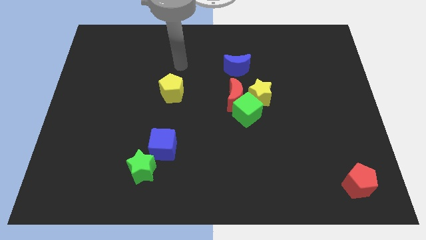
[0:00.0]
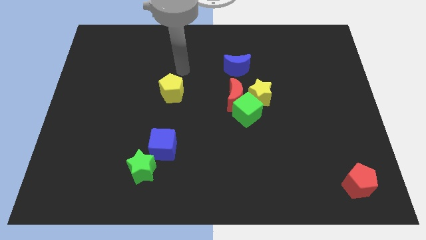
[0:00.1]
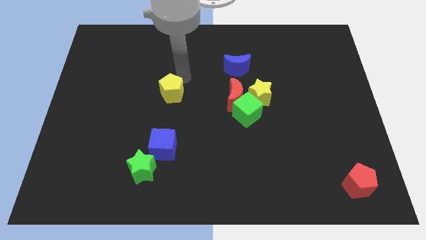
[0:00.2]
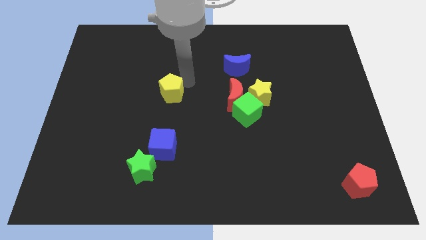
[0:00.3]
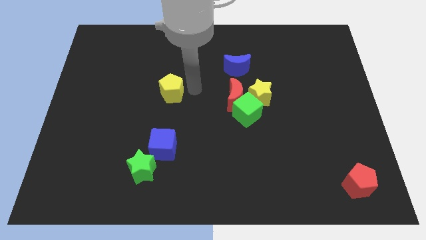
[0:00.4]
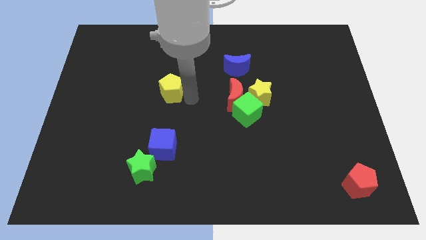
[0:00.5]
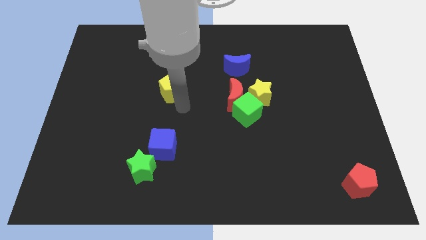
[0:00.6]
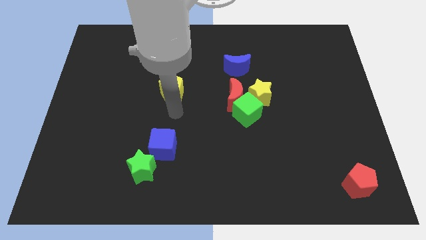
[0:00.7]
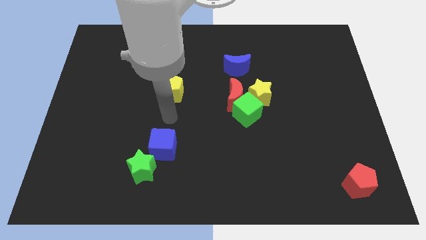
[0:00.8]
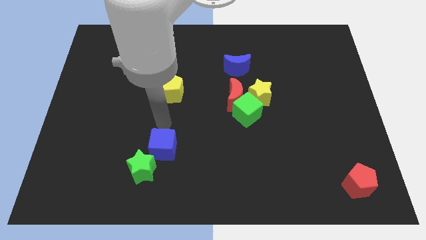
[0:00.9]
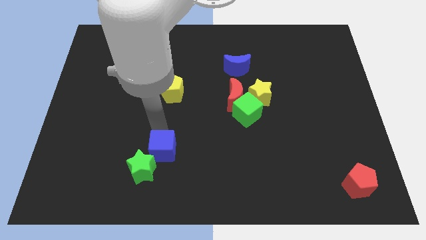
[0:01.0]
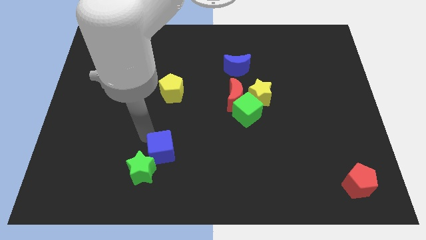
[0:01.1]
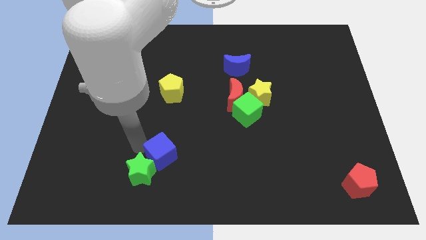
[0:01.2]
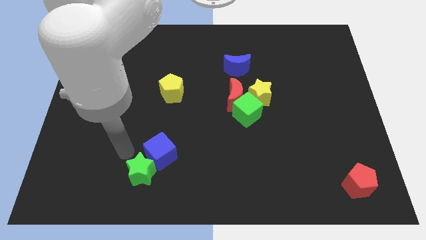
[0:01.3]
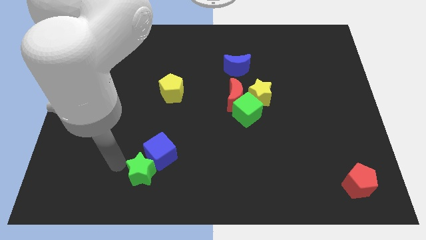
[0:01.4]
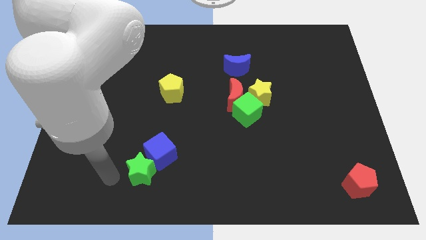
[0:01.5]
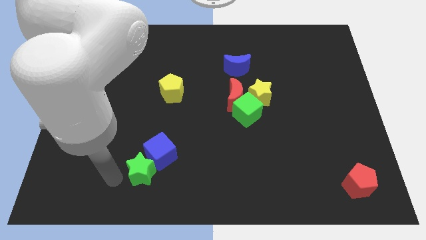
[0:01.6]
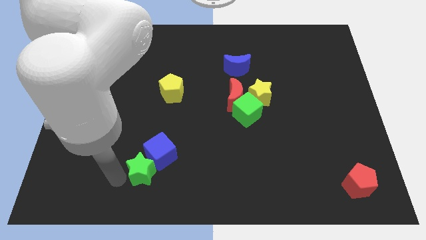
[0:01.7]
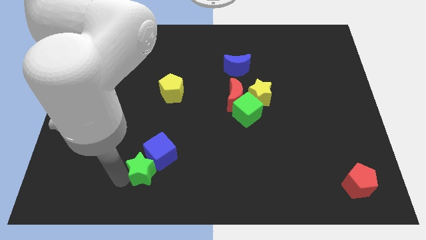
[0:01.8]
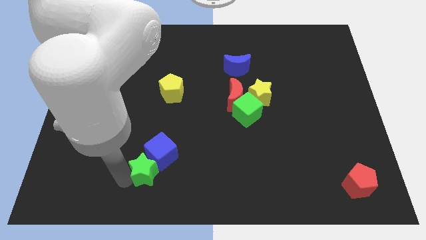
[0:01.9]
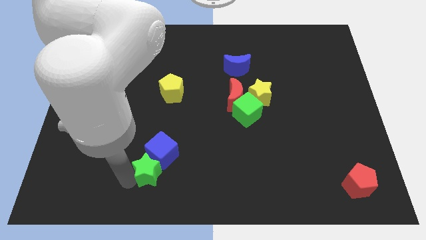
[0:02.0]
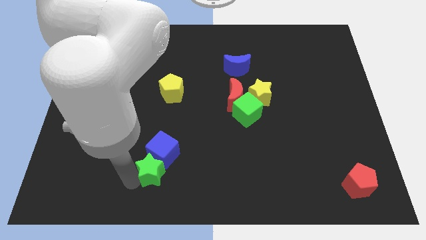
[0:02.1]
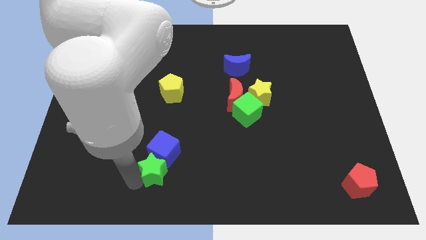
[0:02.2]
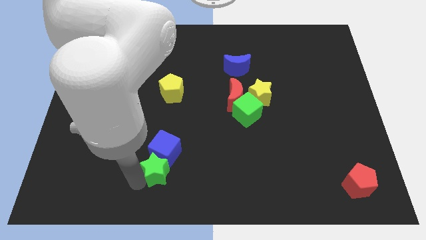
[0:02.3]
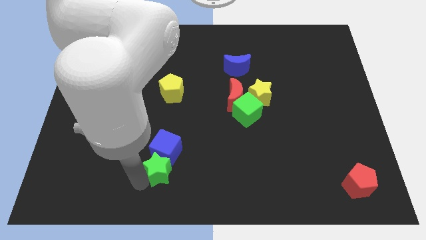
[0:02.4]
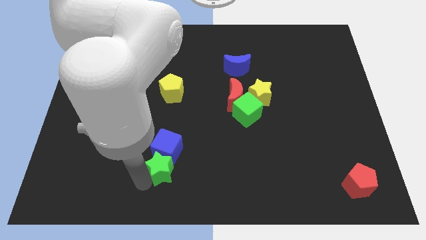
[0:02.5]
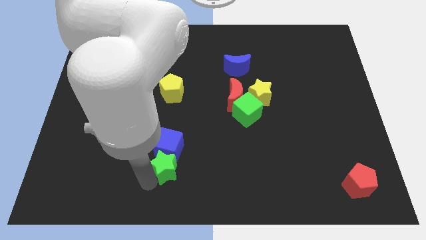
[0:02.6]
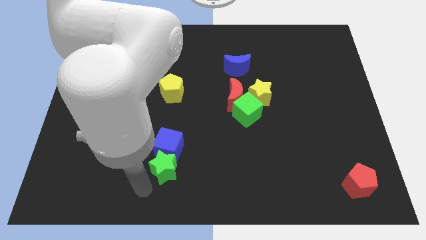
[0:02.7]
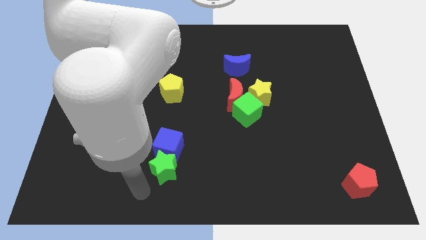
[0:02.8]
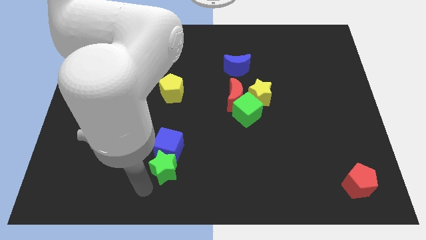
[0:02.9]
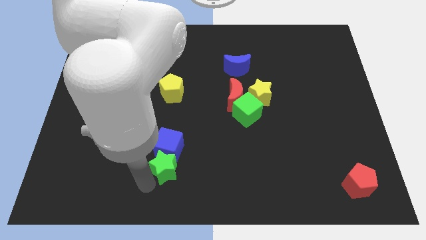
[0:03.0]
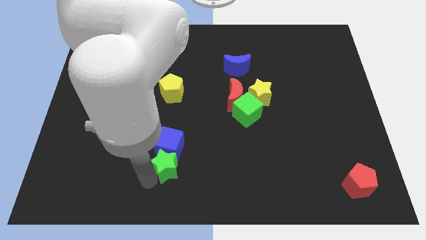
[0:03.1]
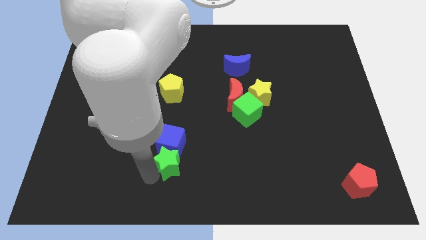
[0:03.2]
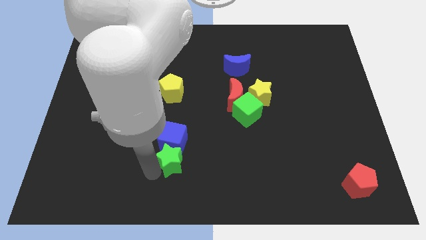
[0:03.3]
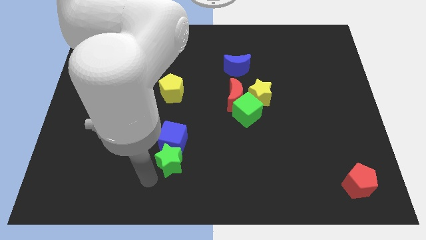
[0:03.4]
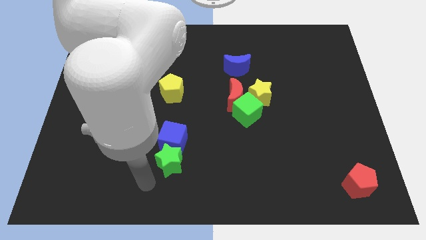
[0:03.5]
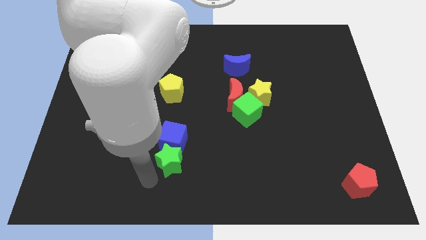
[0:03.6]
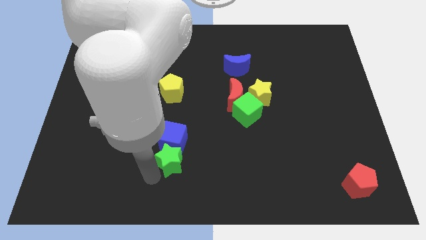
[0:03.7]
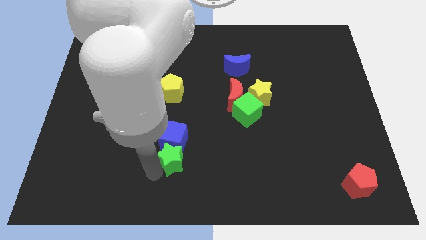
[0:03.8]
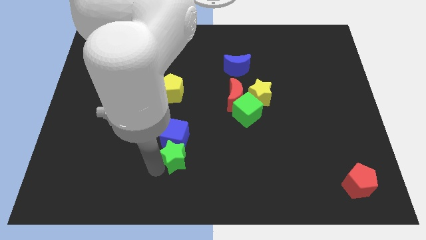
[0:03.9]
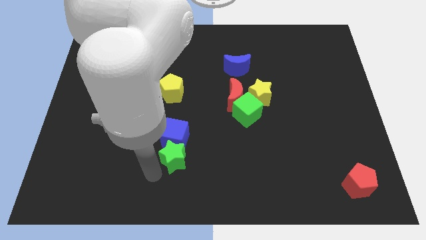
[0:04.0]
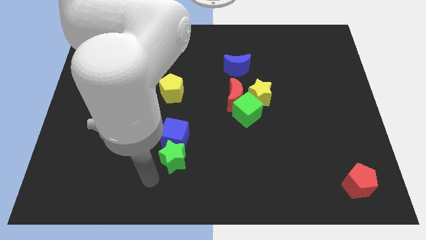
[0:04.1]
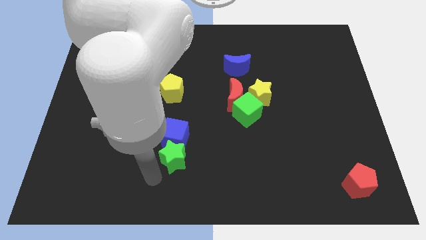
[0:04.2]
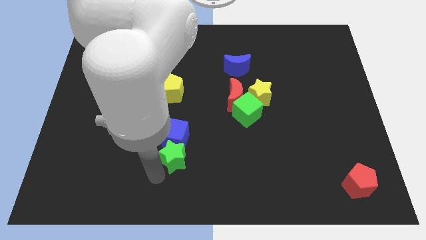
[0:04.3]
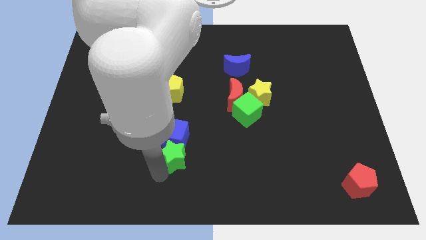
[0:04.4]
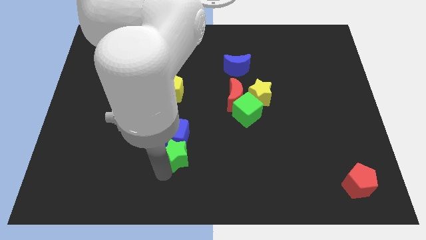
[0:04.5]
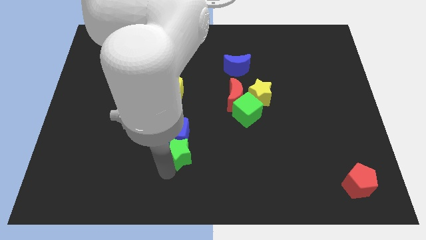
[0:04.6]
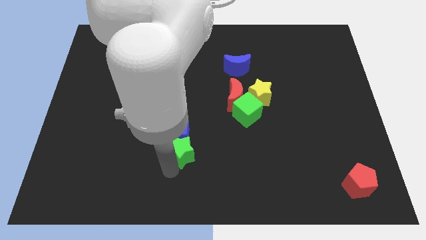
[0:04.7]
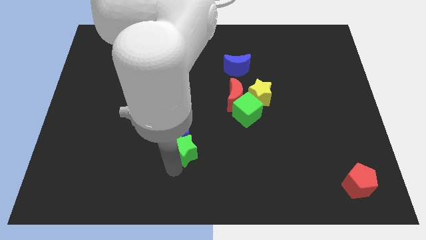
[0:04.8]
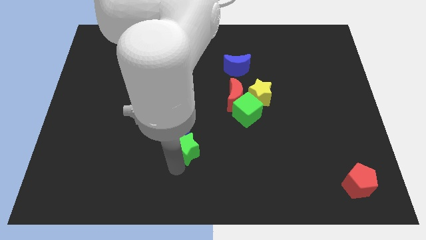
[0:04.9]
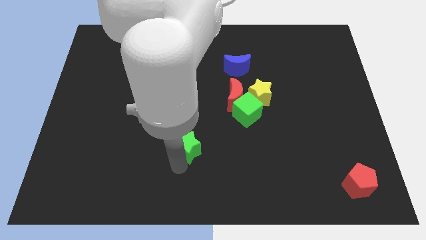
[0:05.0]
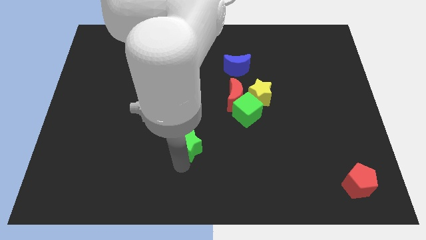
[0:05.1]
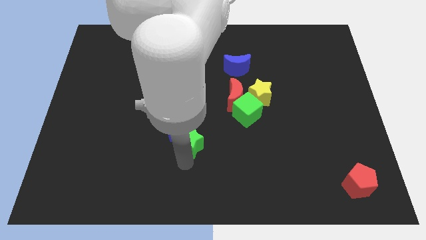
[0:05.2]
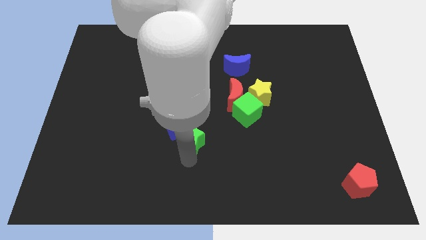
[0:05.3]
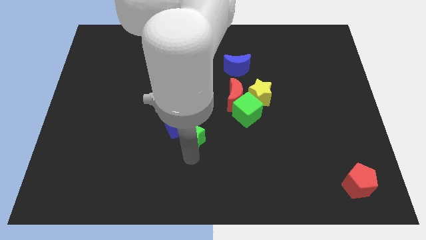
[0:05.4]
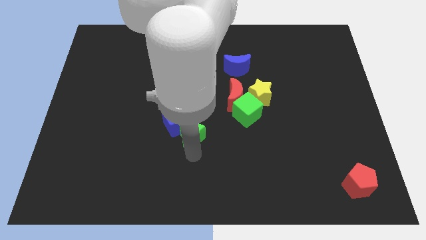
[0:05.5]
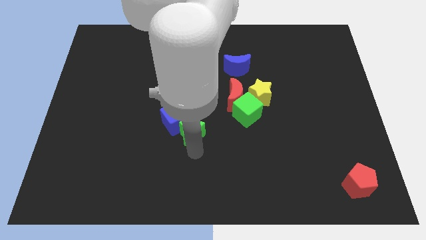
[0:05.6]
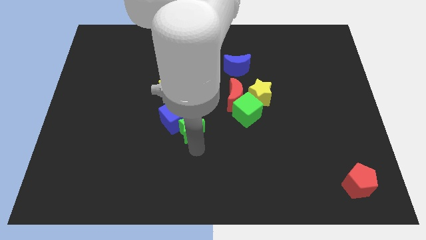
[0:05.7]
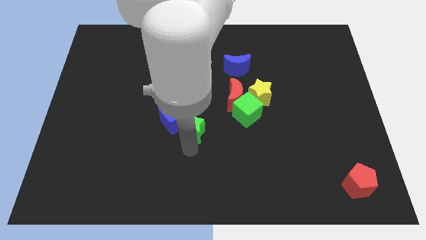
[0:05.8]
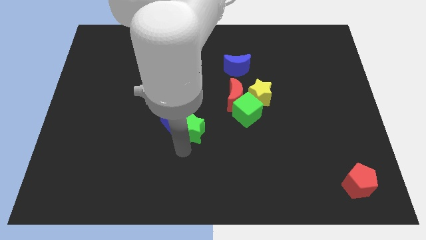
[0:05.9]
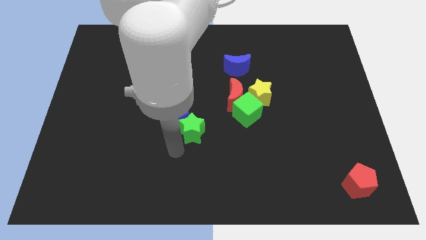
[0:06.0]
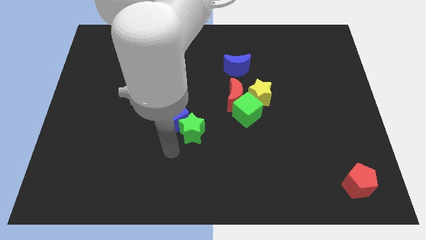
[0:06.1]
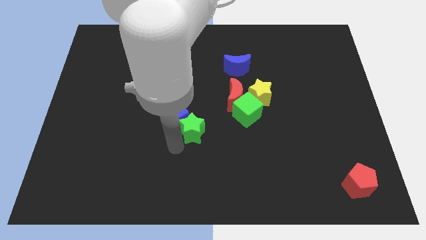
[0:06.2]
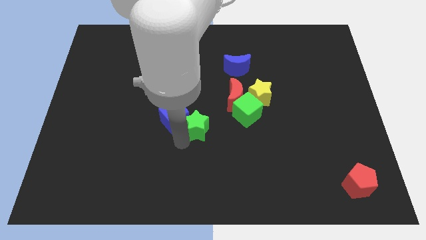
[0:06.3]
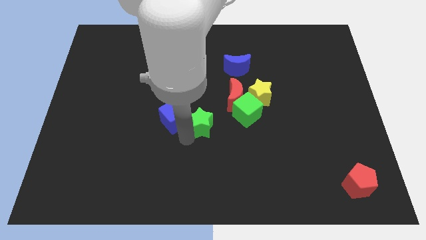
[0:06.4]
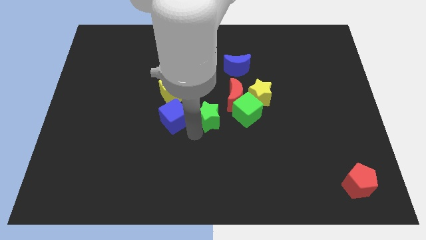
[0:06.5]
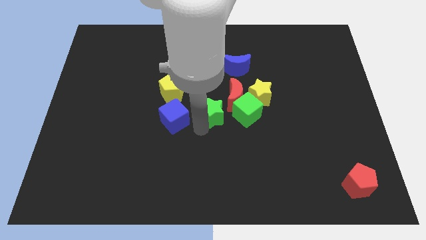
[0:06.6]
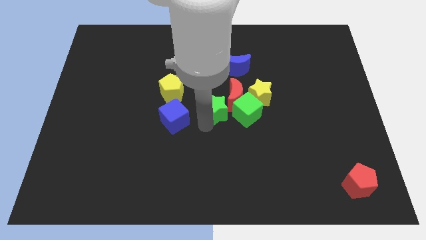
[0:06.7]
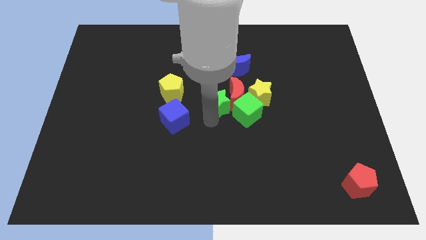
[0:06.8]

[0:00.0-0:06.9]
put the green star to the top left side of the green cube

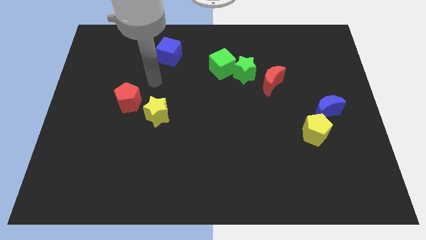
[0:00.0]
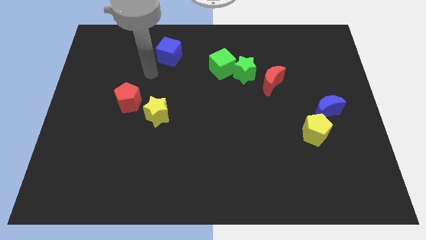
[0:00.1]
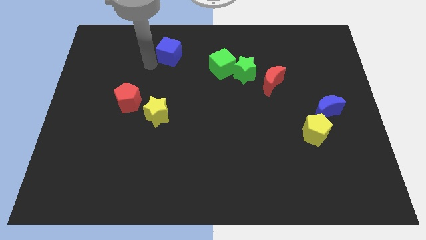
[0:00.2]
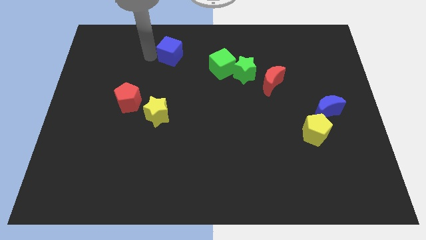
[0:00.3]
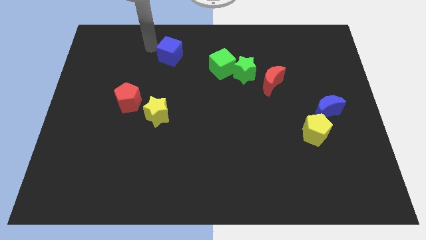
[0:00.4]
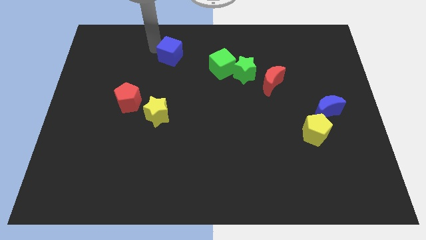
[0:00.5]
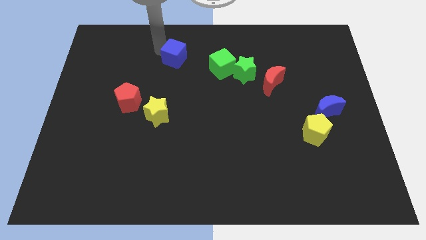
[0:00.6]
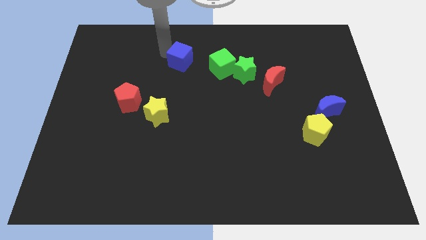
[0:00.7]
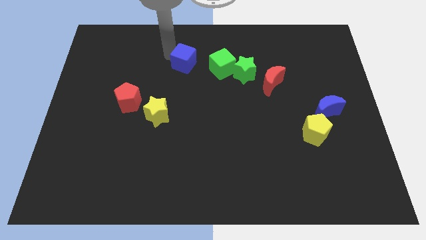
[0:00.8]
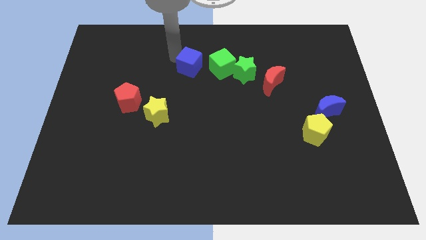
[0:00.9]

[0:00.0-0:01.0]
put the blue cube to the left side of the green star

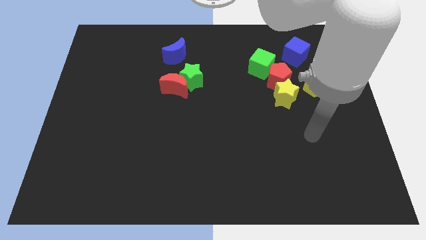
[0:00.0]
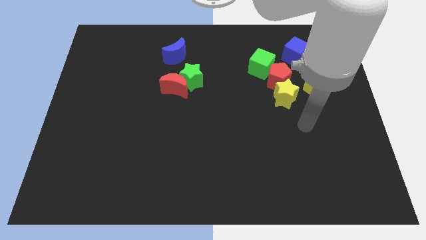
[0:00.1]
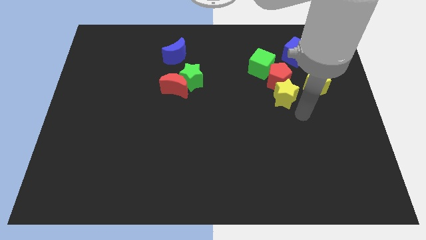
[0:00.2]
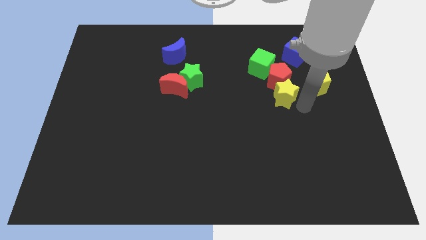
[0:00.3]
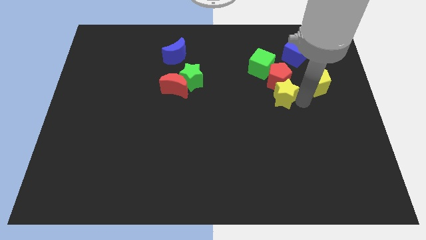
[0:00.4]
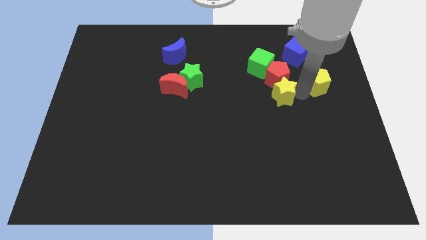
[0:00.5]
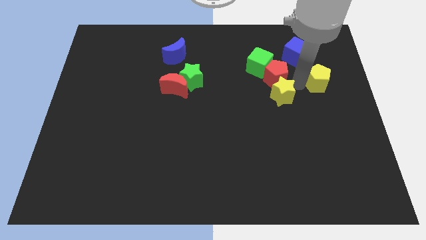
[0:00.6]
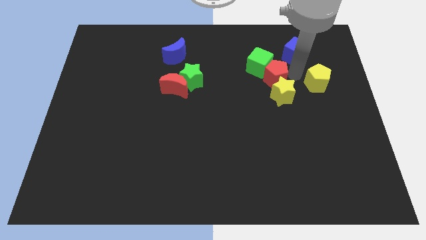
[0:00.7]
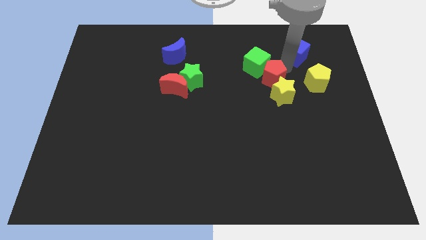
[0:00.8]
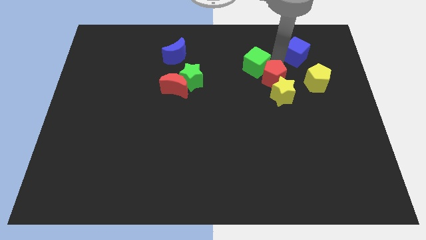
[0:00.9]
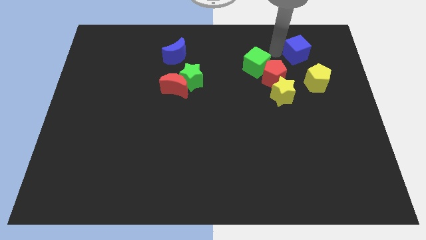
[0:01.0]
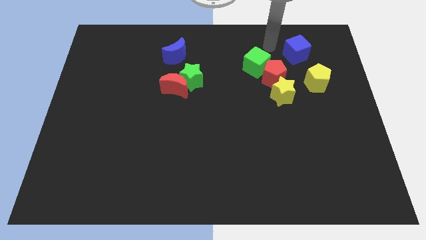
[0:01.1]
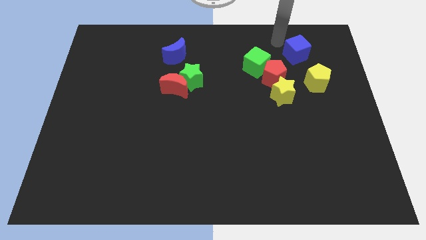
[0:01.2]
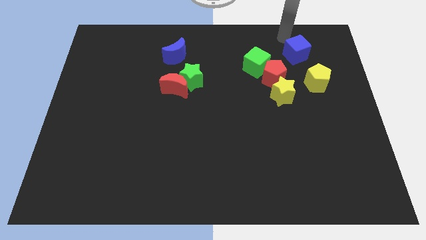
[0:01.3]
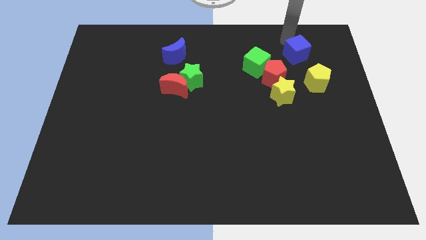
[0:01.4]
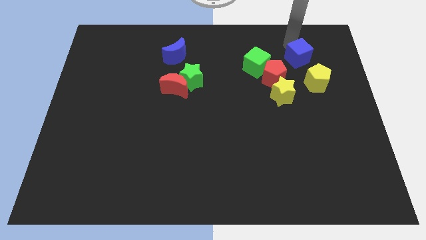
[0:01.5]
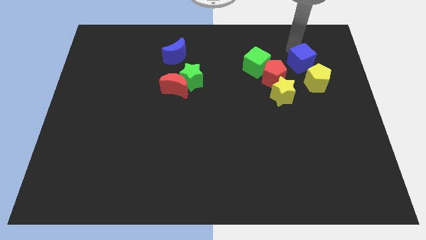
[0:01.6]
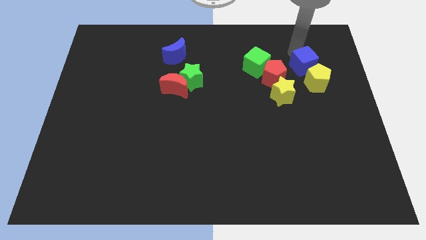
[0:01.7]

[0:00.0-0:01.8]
push the blue cube to the top right side of the yellow star
